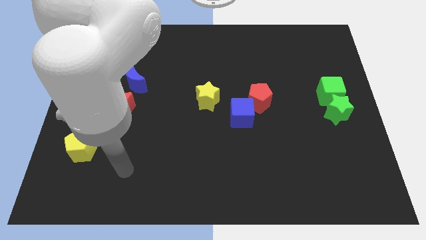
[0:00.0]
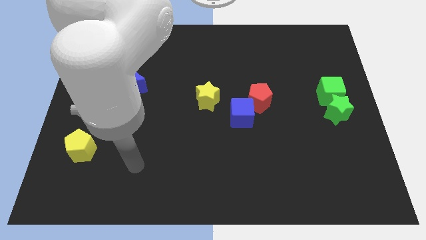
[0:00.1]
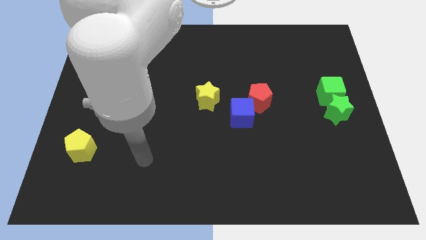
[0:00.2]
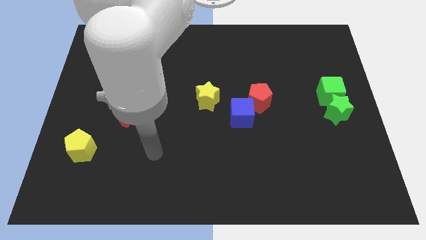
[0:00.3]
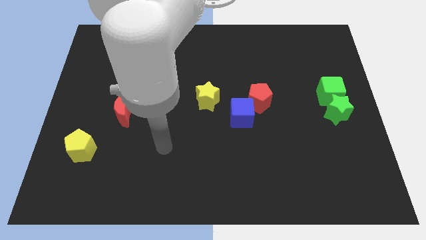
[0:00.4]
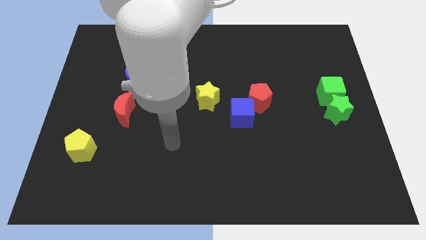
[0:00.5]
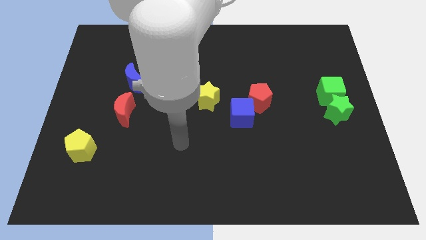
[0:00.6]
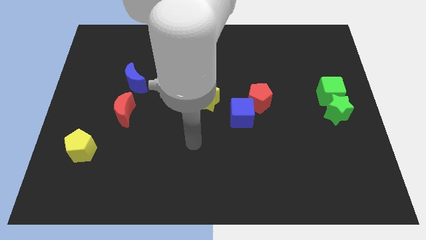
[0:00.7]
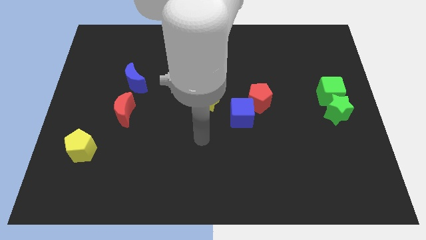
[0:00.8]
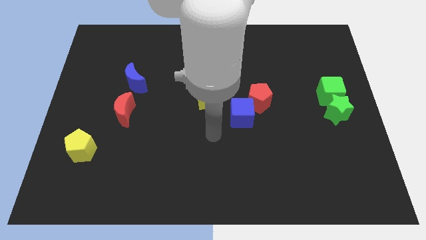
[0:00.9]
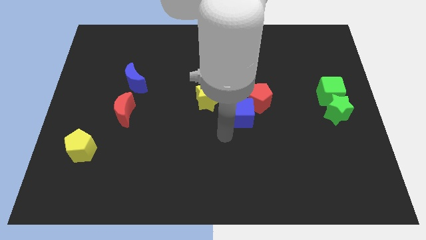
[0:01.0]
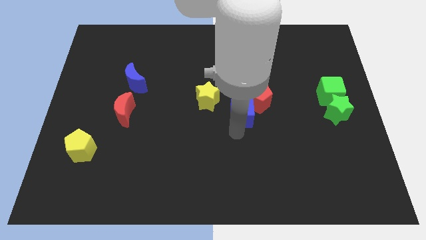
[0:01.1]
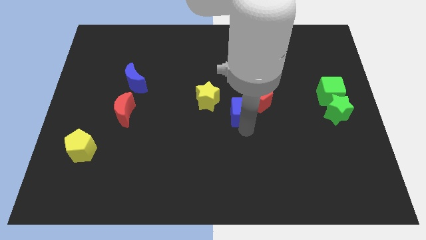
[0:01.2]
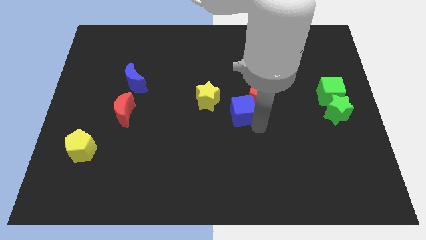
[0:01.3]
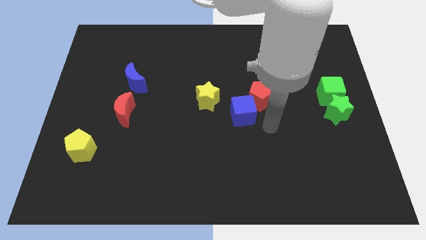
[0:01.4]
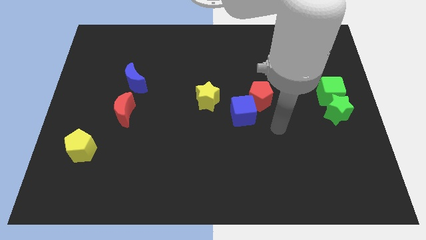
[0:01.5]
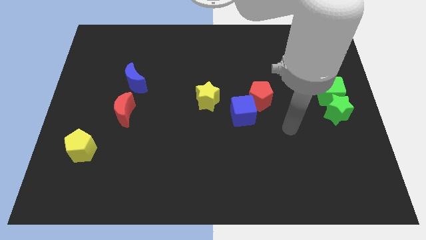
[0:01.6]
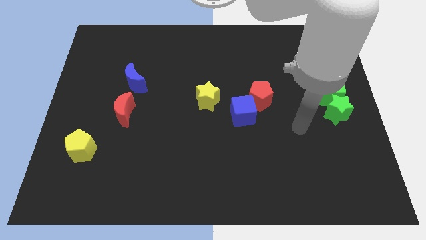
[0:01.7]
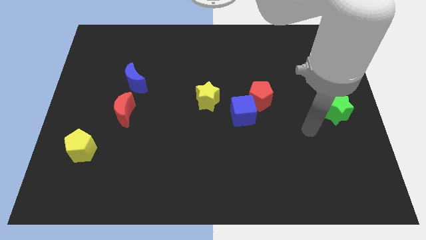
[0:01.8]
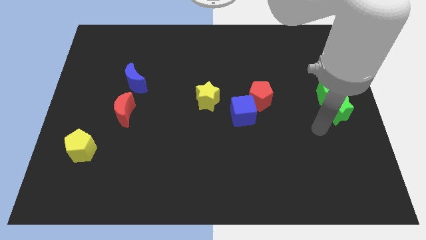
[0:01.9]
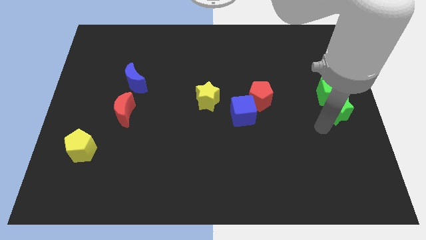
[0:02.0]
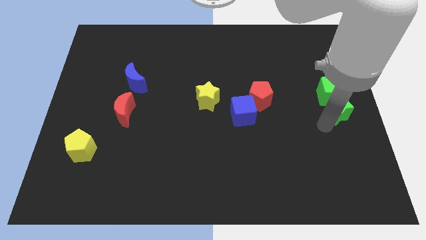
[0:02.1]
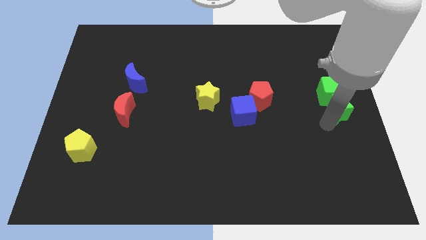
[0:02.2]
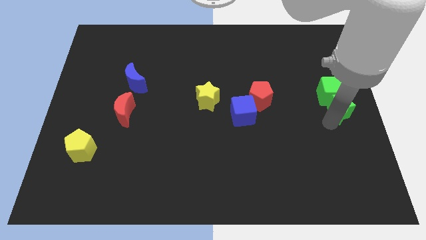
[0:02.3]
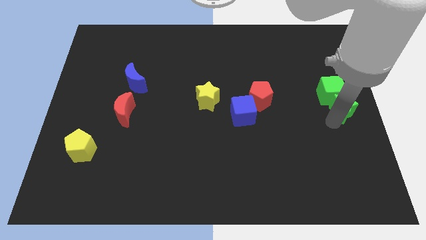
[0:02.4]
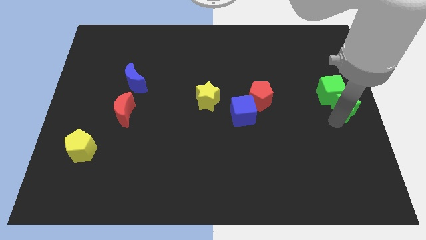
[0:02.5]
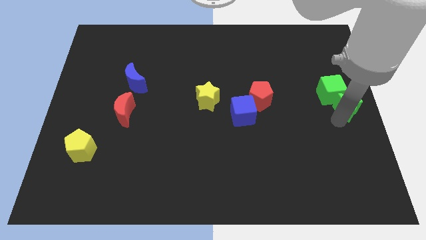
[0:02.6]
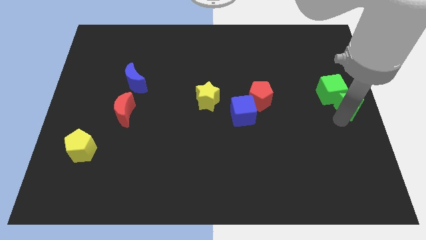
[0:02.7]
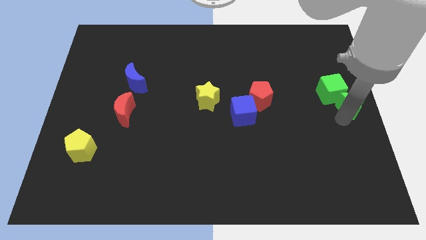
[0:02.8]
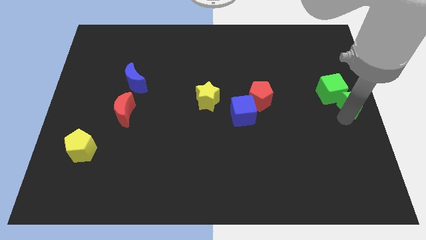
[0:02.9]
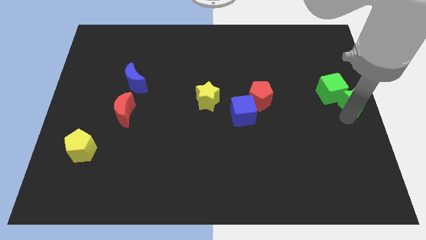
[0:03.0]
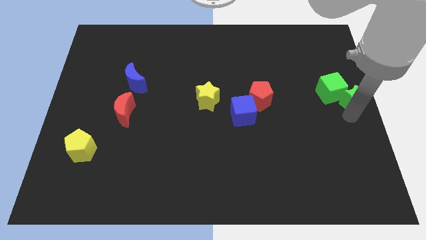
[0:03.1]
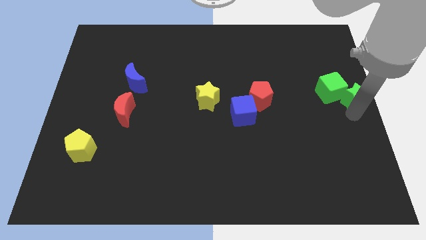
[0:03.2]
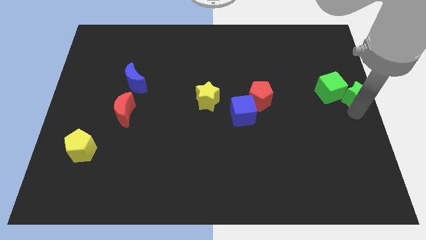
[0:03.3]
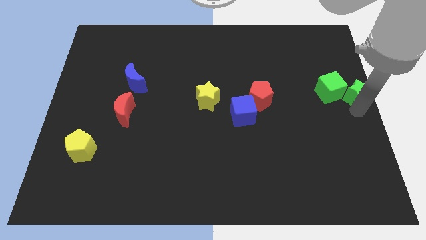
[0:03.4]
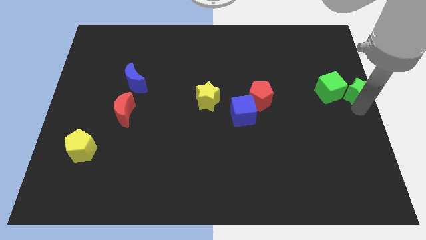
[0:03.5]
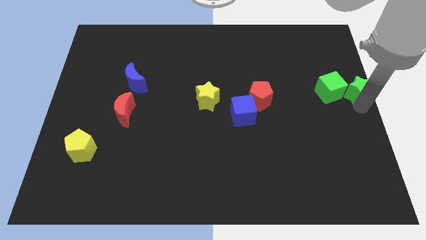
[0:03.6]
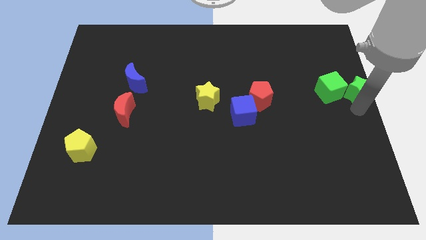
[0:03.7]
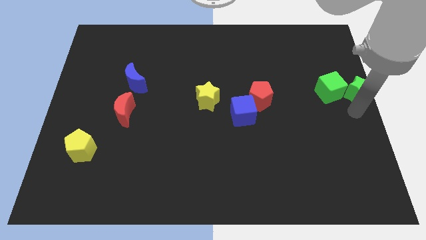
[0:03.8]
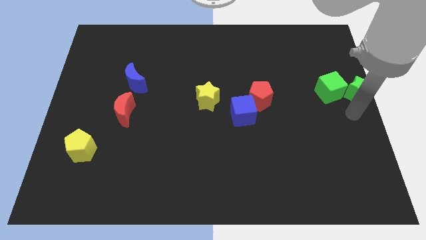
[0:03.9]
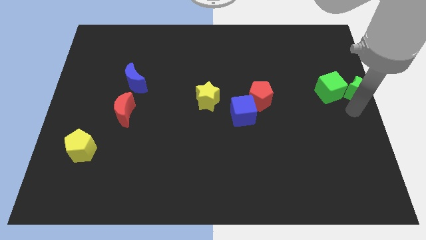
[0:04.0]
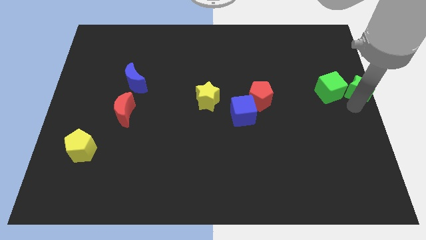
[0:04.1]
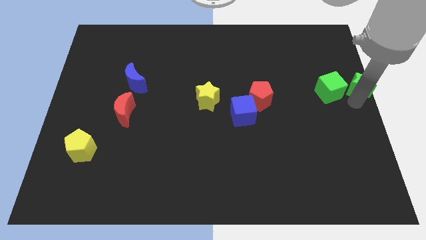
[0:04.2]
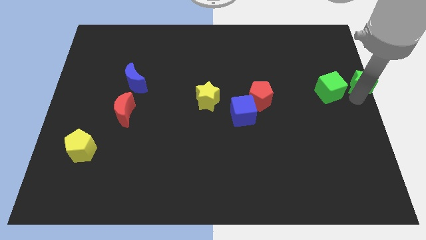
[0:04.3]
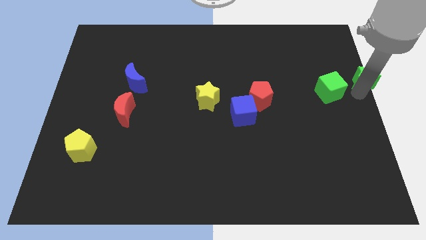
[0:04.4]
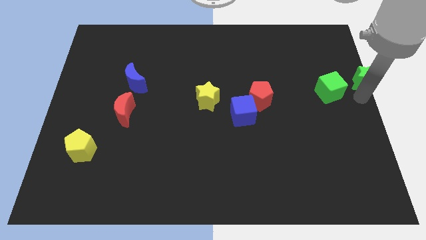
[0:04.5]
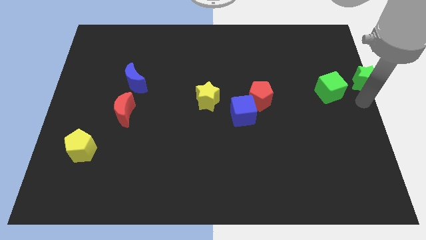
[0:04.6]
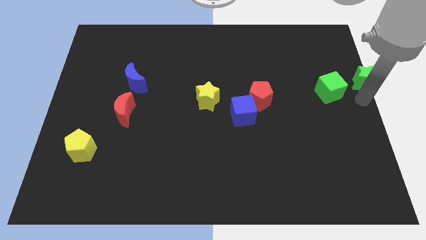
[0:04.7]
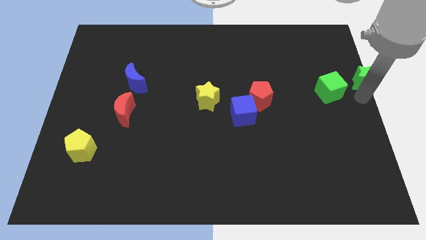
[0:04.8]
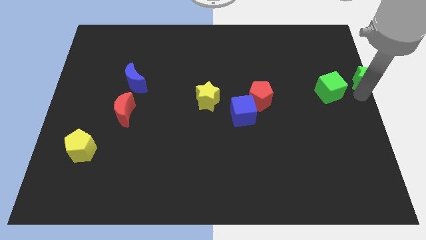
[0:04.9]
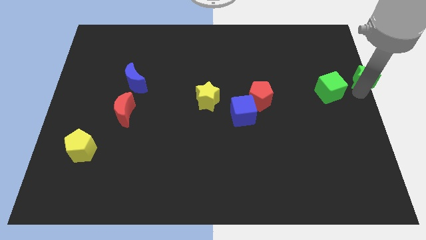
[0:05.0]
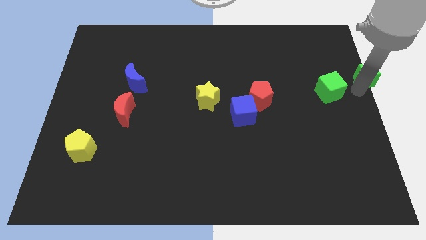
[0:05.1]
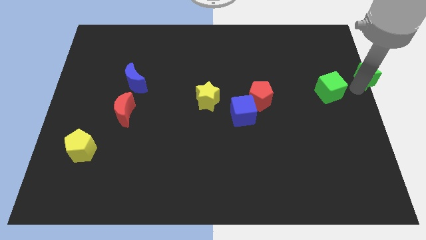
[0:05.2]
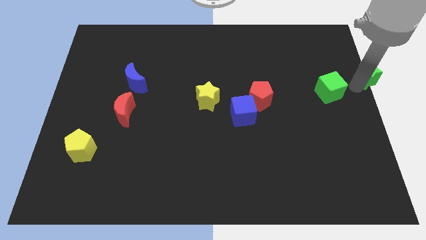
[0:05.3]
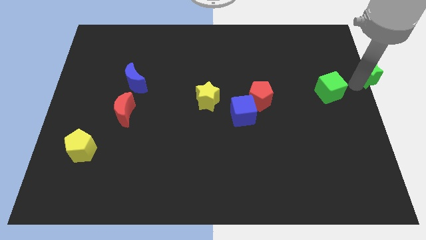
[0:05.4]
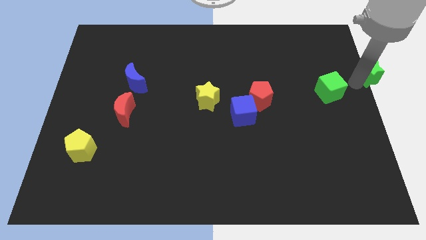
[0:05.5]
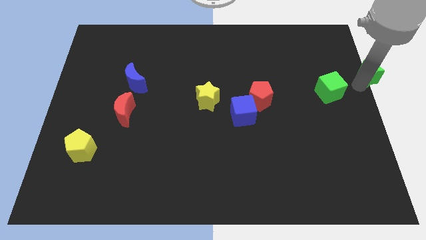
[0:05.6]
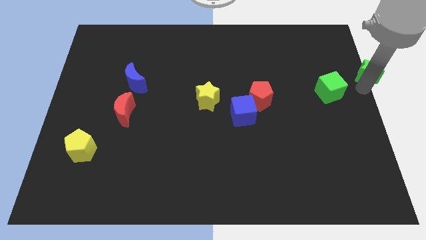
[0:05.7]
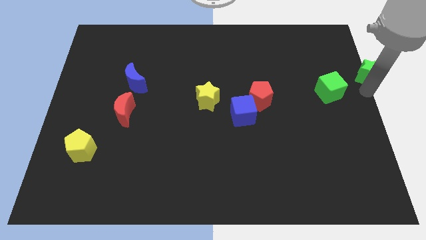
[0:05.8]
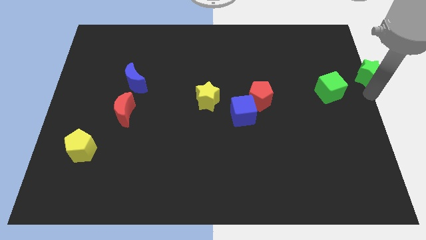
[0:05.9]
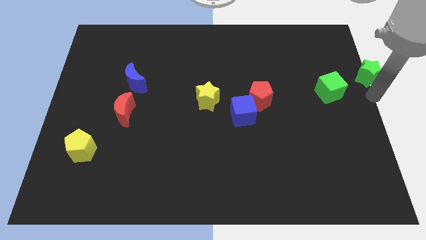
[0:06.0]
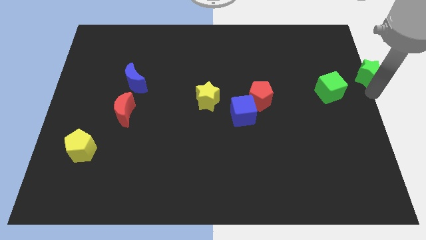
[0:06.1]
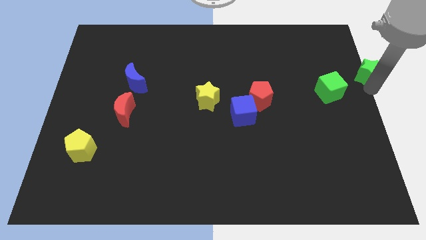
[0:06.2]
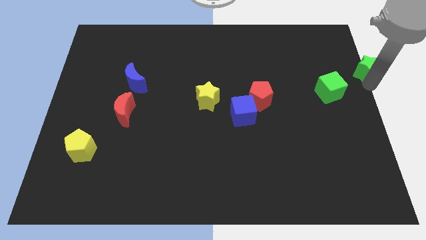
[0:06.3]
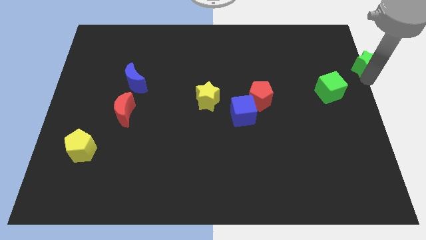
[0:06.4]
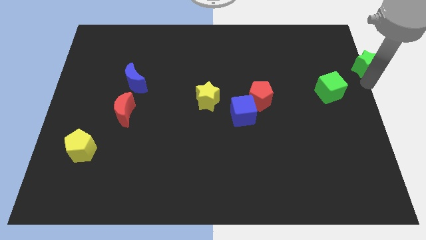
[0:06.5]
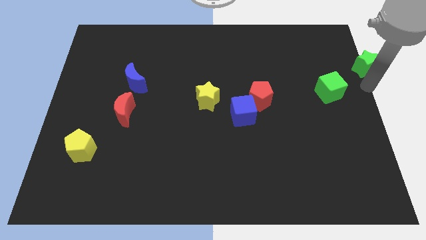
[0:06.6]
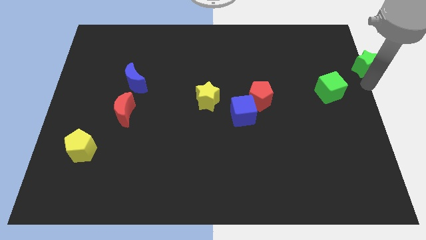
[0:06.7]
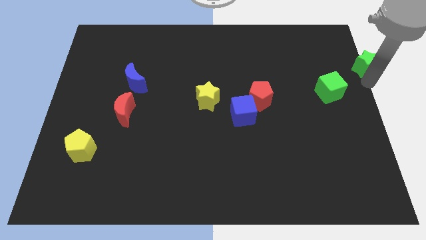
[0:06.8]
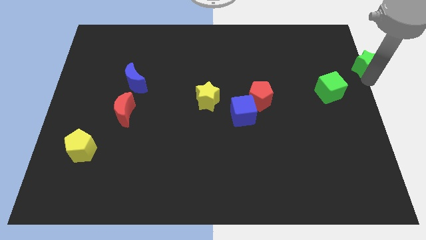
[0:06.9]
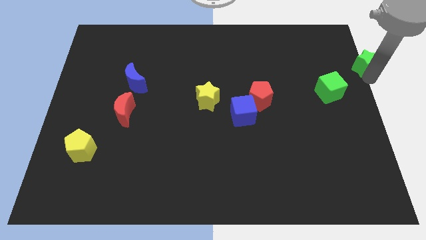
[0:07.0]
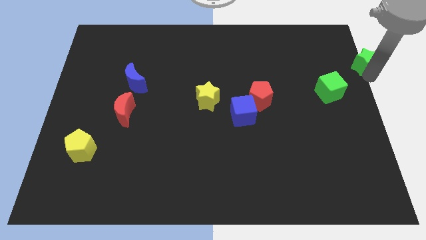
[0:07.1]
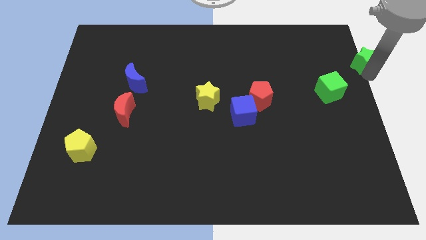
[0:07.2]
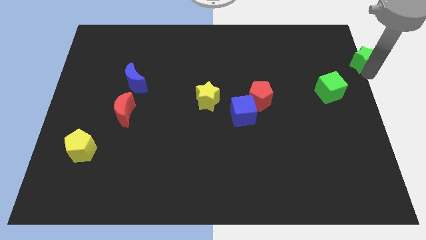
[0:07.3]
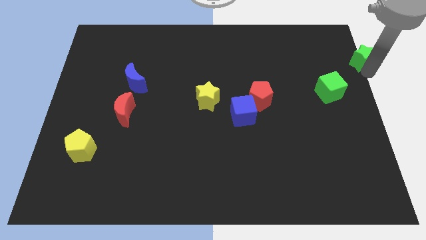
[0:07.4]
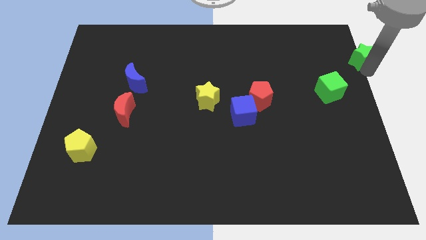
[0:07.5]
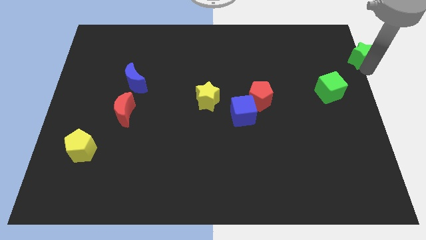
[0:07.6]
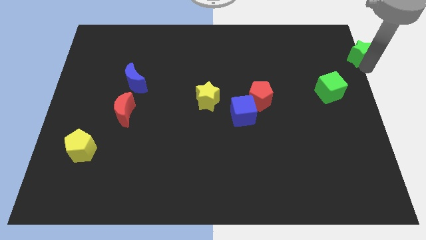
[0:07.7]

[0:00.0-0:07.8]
push the green star to the upper right corner
